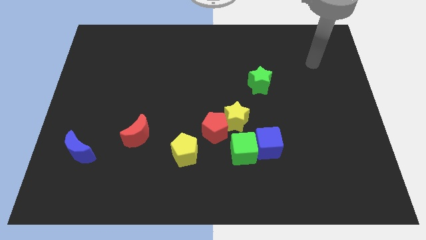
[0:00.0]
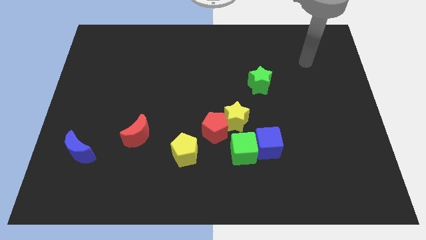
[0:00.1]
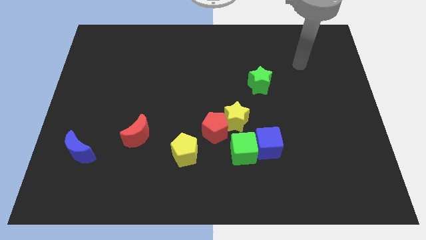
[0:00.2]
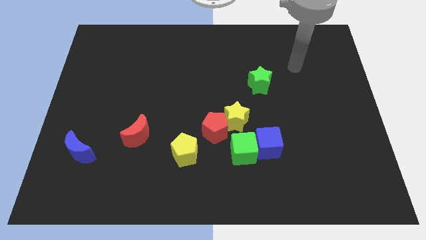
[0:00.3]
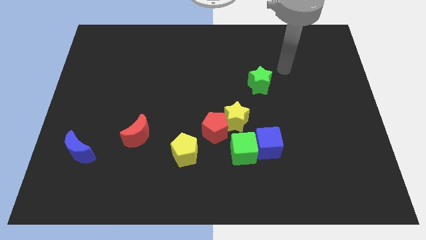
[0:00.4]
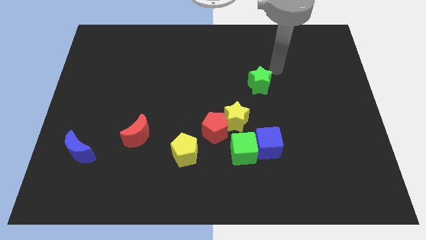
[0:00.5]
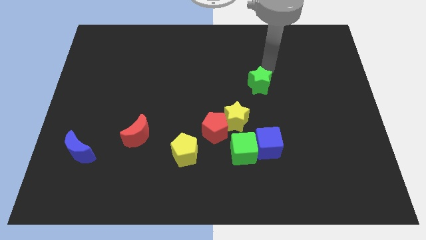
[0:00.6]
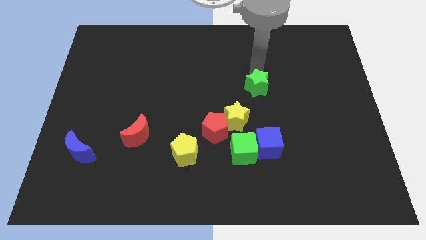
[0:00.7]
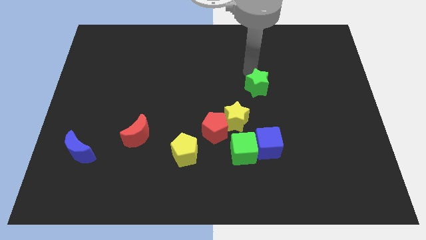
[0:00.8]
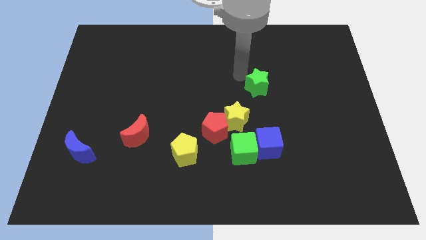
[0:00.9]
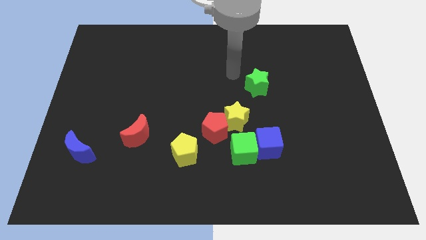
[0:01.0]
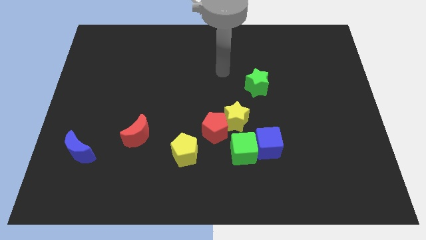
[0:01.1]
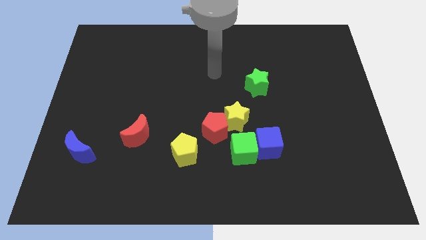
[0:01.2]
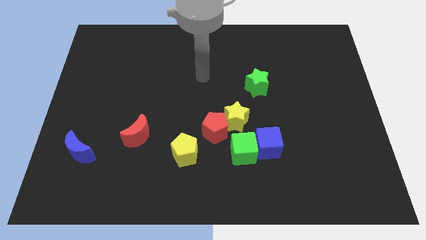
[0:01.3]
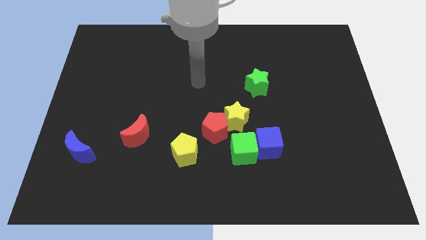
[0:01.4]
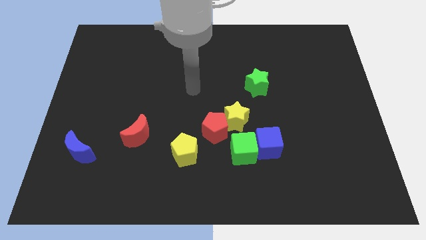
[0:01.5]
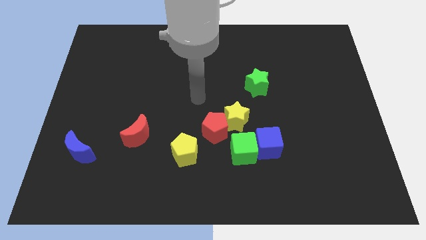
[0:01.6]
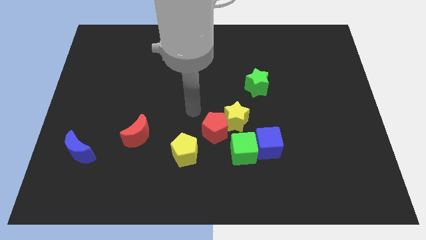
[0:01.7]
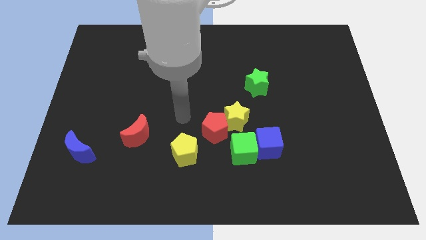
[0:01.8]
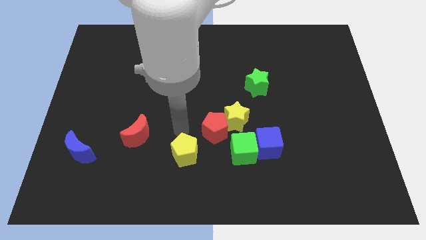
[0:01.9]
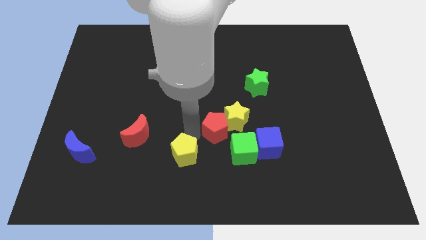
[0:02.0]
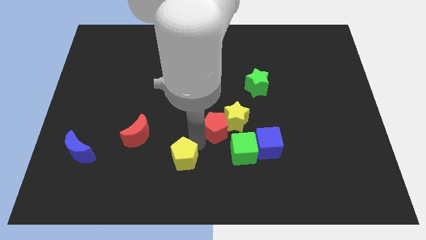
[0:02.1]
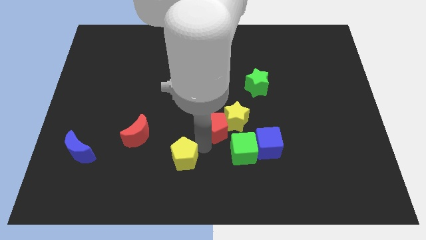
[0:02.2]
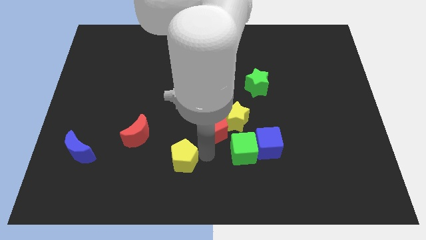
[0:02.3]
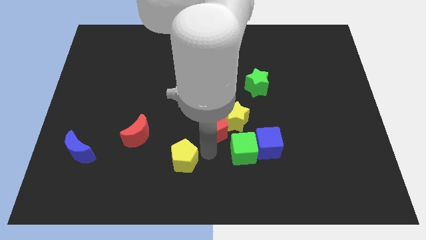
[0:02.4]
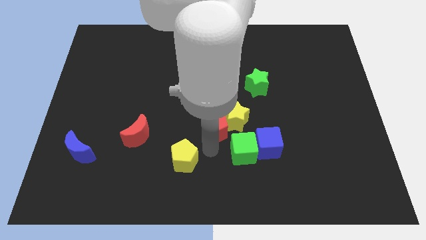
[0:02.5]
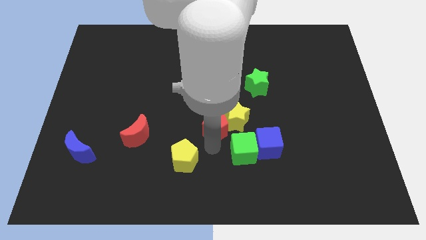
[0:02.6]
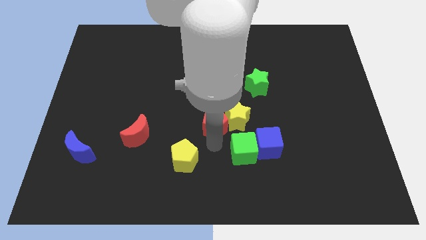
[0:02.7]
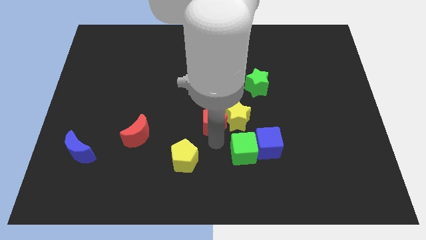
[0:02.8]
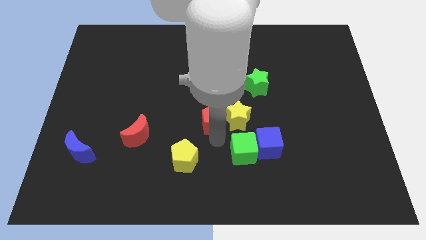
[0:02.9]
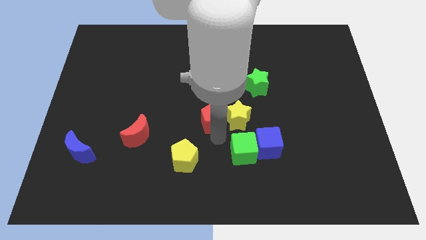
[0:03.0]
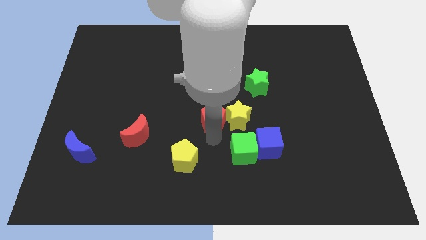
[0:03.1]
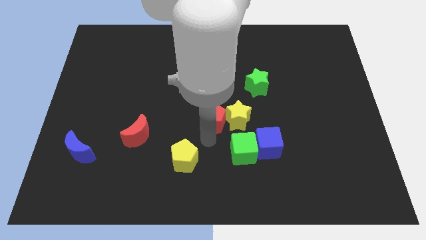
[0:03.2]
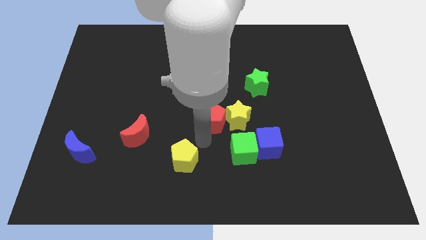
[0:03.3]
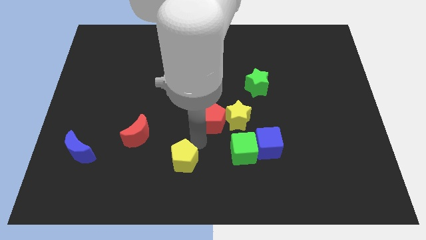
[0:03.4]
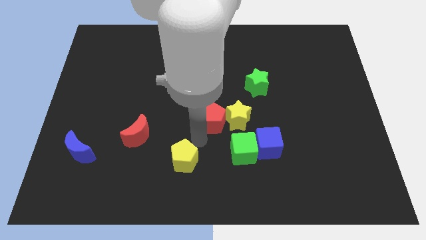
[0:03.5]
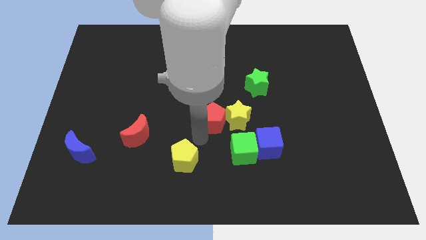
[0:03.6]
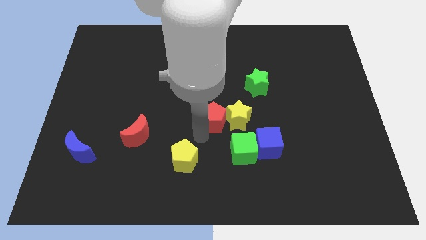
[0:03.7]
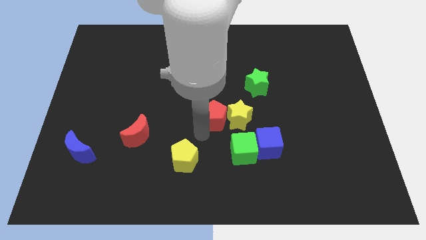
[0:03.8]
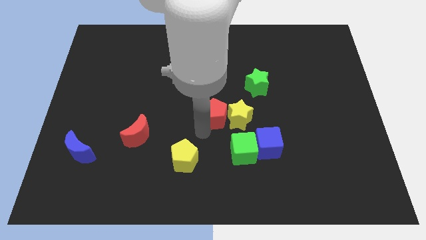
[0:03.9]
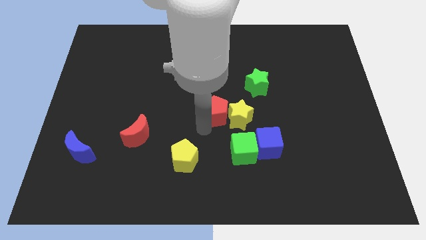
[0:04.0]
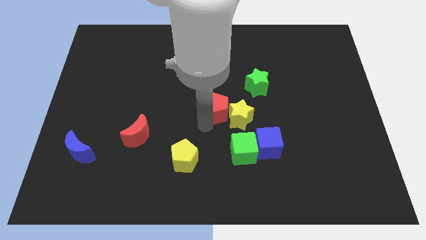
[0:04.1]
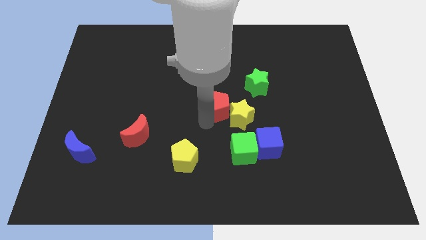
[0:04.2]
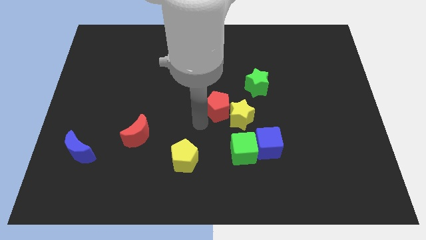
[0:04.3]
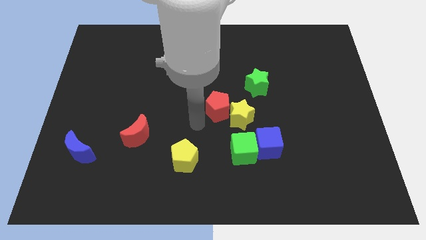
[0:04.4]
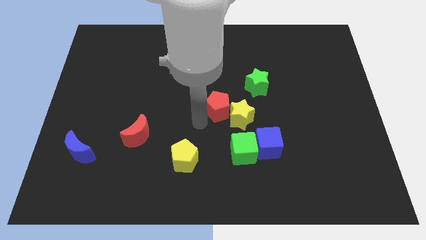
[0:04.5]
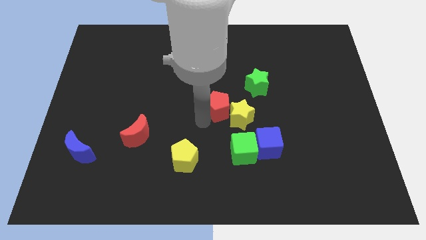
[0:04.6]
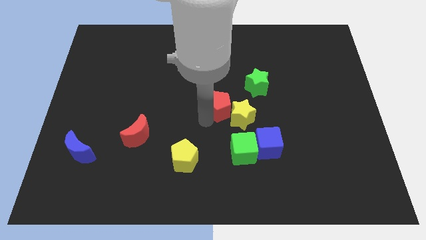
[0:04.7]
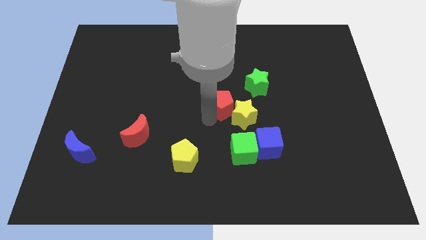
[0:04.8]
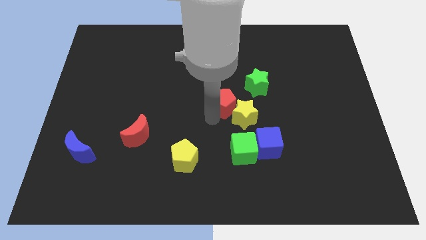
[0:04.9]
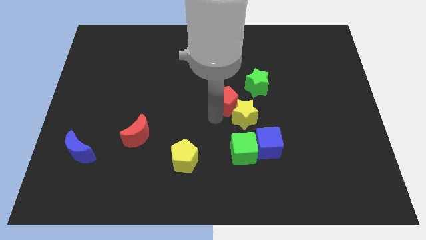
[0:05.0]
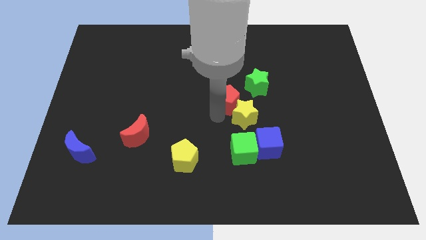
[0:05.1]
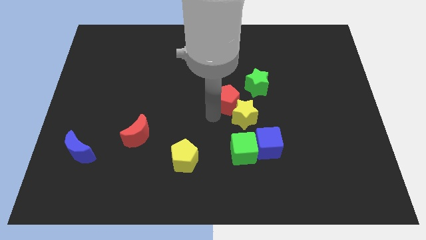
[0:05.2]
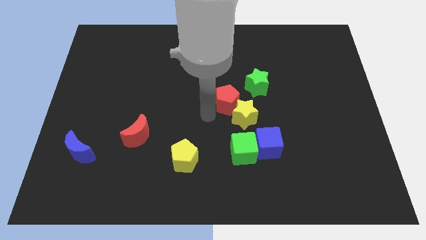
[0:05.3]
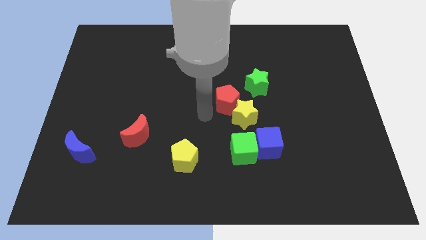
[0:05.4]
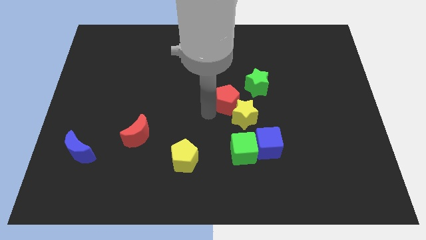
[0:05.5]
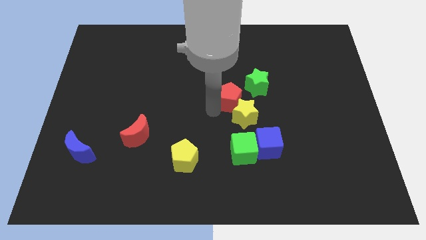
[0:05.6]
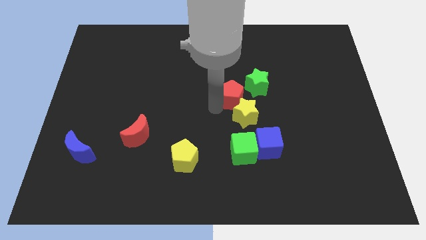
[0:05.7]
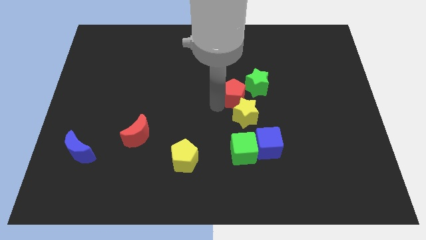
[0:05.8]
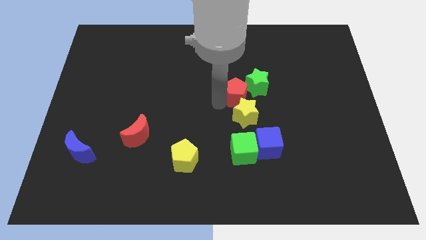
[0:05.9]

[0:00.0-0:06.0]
push the red pentagon to the green star
